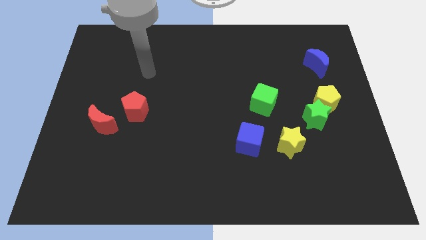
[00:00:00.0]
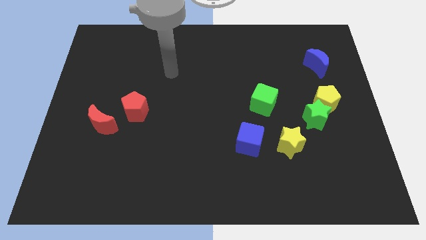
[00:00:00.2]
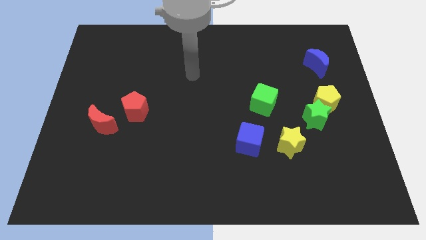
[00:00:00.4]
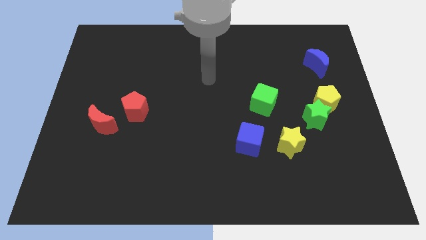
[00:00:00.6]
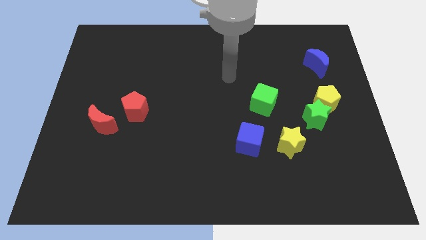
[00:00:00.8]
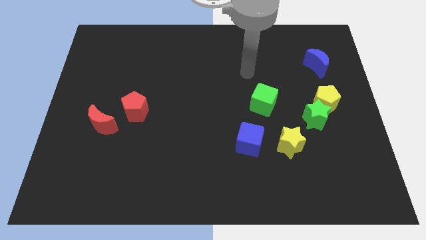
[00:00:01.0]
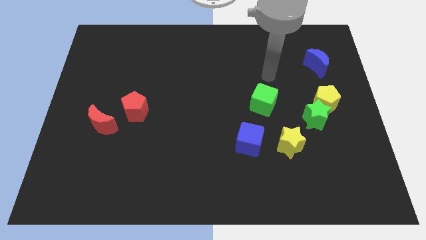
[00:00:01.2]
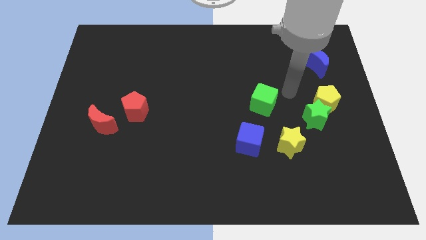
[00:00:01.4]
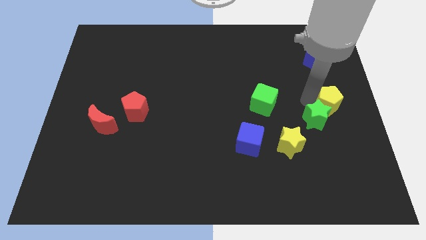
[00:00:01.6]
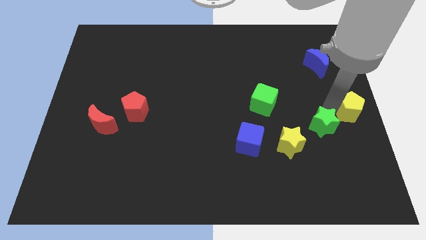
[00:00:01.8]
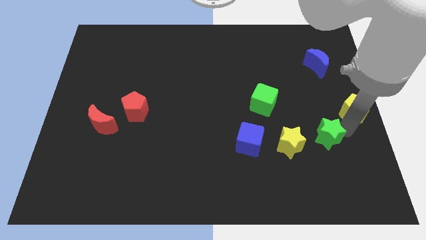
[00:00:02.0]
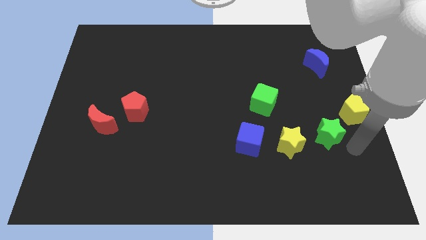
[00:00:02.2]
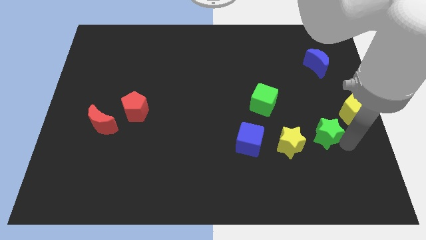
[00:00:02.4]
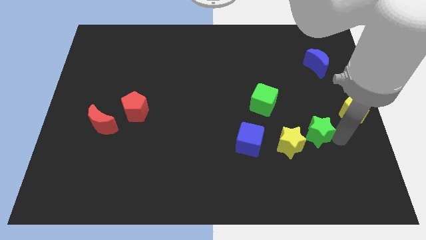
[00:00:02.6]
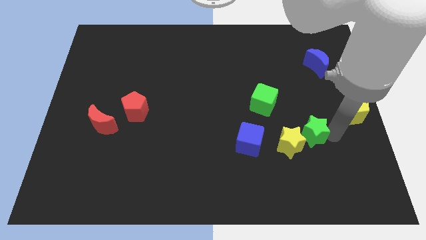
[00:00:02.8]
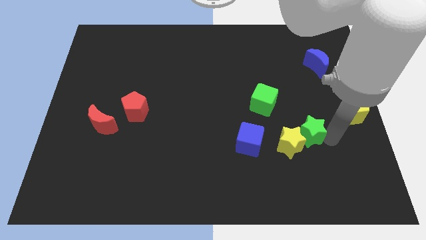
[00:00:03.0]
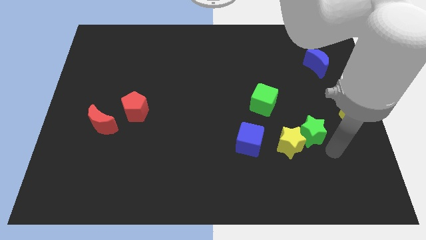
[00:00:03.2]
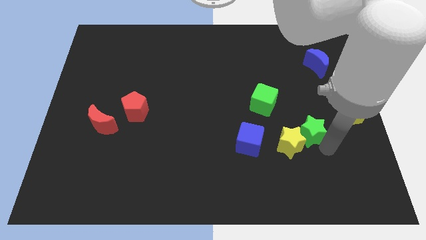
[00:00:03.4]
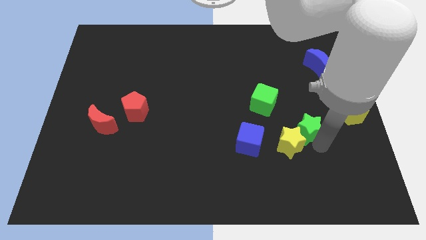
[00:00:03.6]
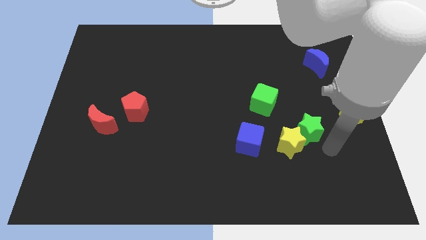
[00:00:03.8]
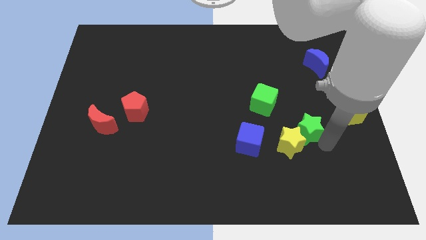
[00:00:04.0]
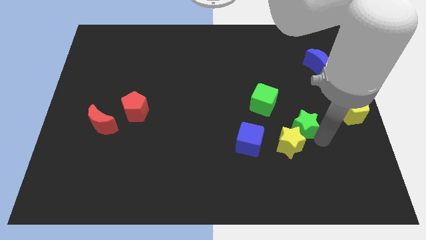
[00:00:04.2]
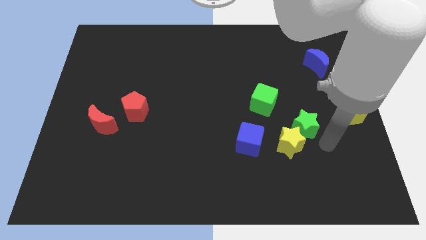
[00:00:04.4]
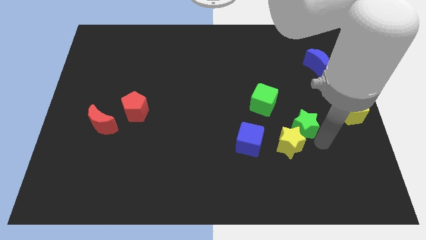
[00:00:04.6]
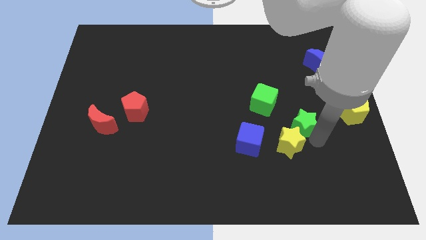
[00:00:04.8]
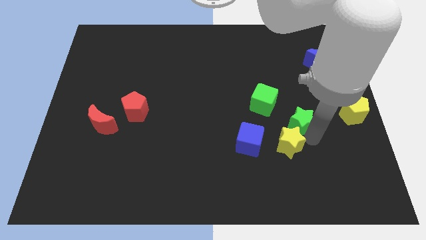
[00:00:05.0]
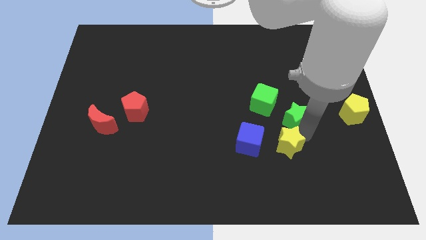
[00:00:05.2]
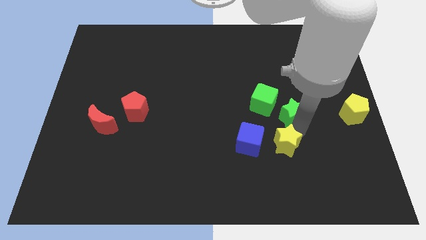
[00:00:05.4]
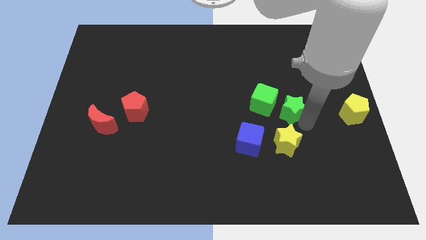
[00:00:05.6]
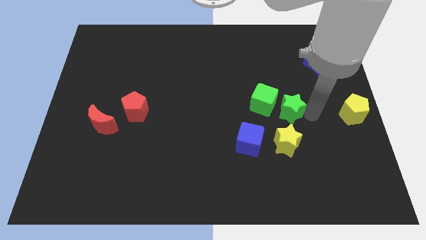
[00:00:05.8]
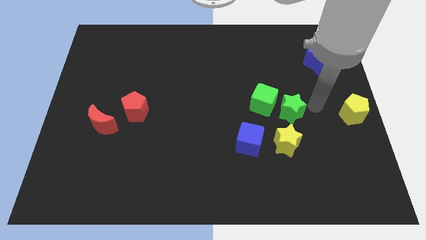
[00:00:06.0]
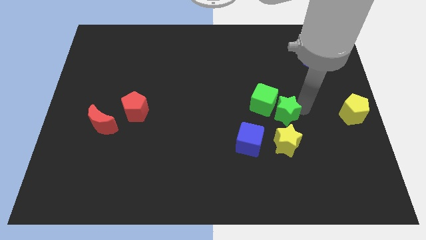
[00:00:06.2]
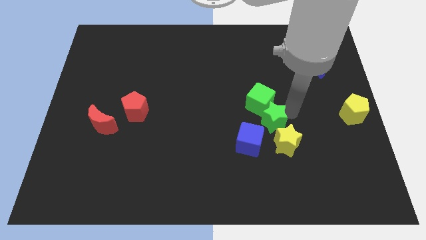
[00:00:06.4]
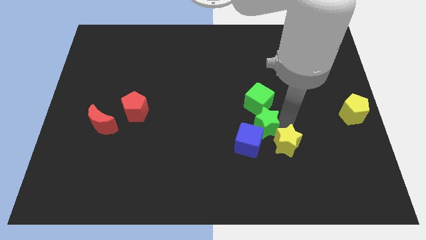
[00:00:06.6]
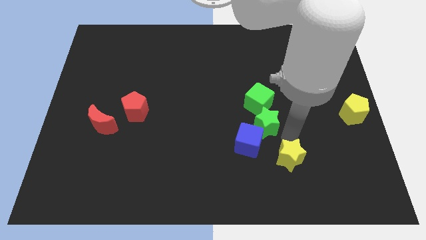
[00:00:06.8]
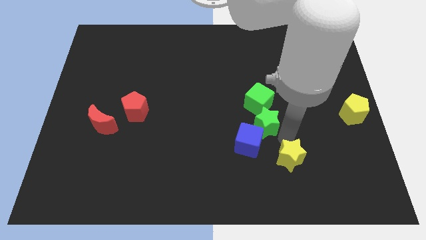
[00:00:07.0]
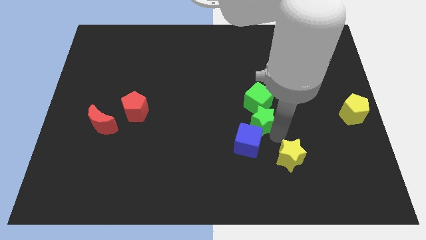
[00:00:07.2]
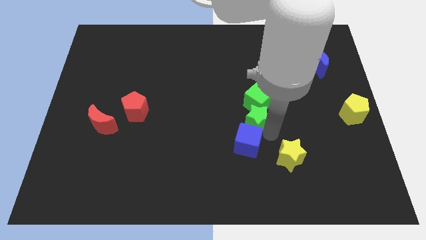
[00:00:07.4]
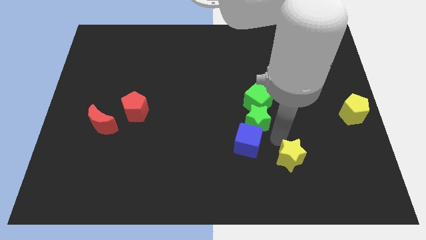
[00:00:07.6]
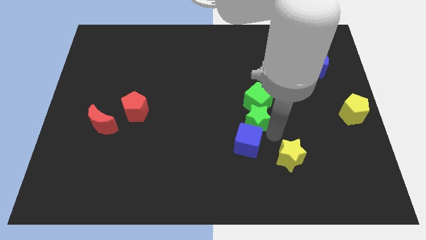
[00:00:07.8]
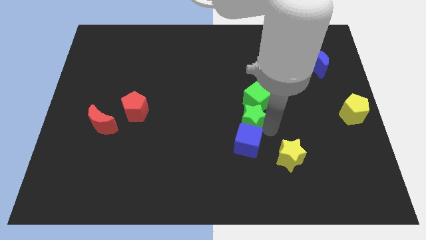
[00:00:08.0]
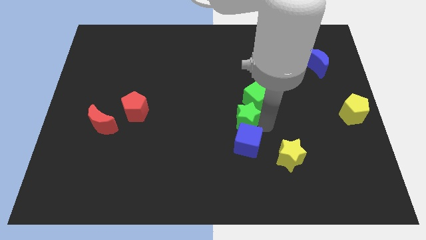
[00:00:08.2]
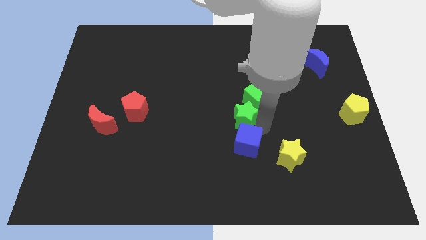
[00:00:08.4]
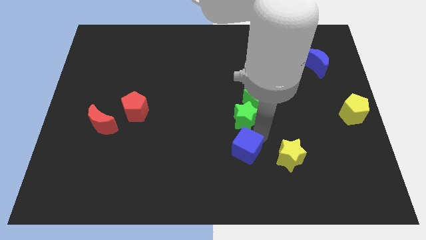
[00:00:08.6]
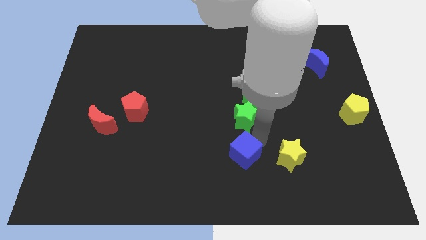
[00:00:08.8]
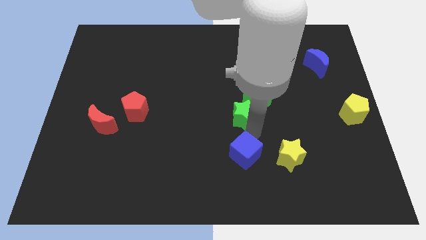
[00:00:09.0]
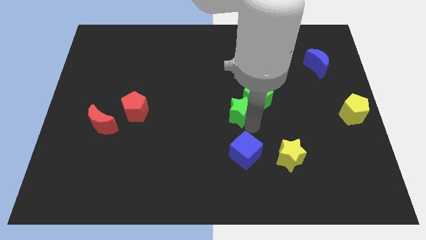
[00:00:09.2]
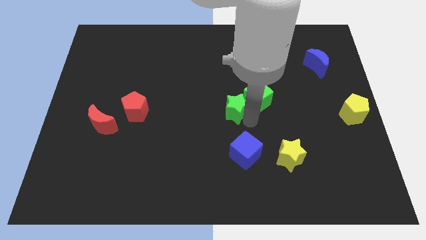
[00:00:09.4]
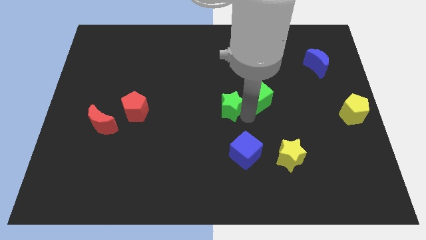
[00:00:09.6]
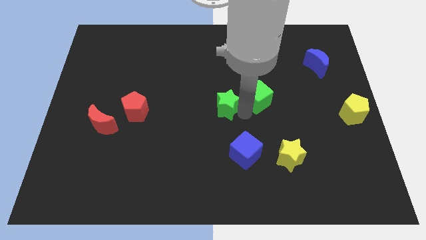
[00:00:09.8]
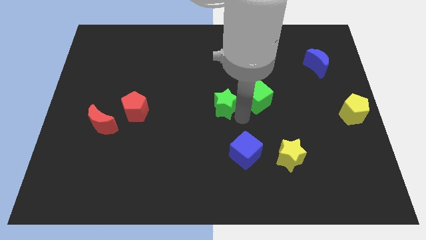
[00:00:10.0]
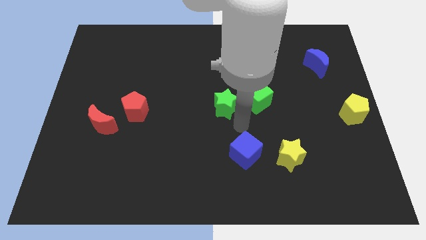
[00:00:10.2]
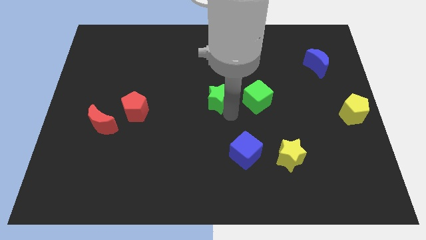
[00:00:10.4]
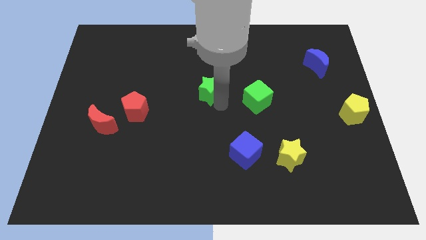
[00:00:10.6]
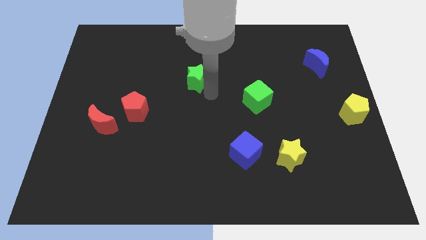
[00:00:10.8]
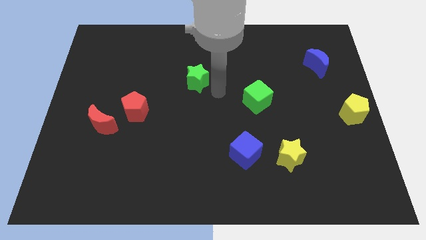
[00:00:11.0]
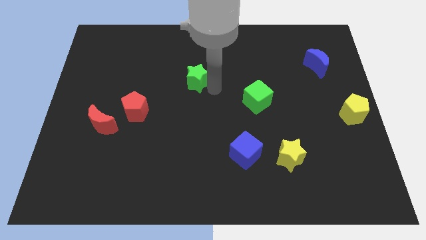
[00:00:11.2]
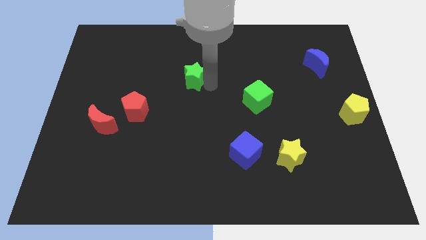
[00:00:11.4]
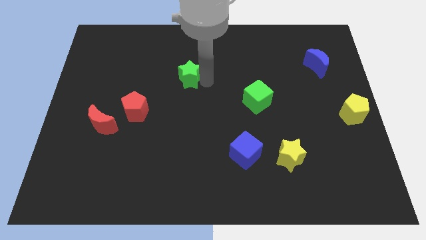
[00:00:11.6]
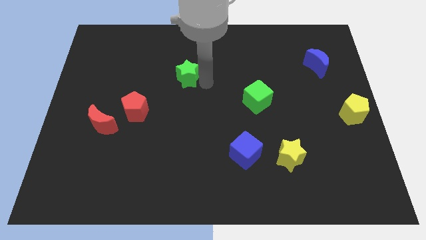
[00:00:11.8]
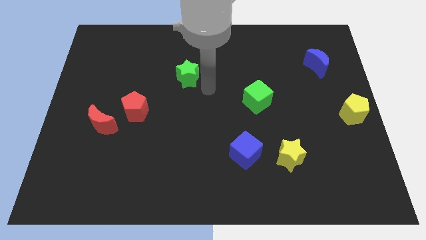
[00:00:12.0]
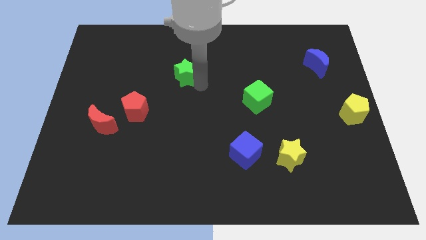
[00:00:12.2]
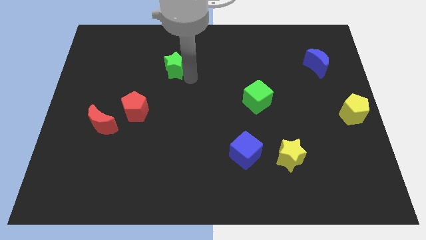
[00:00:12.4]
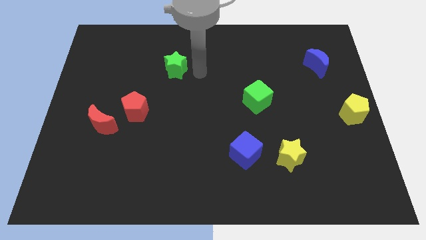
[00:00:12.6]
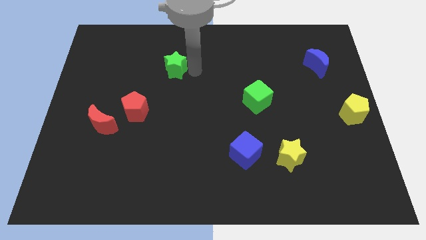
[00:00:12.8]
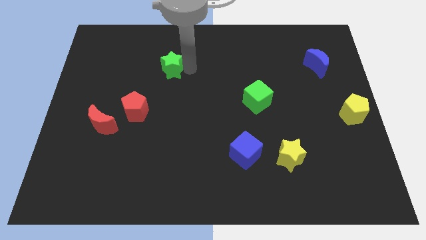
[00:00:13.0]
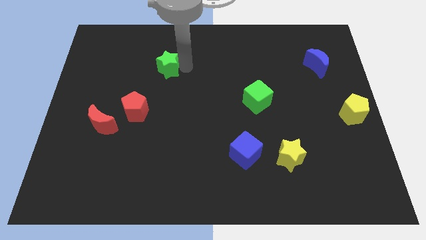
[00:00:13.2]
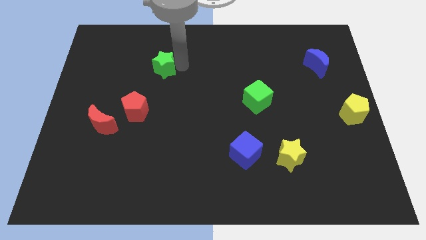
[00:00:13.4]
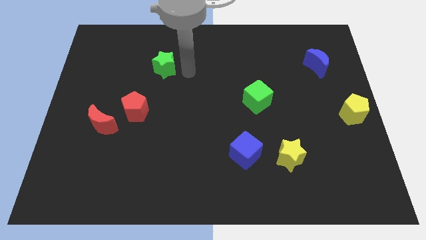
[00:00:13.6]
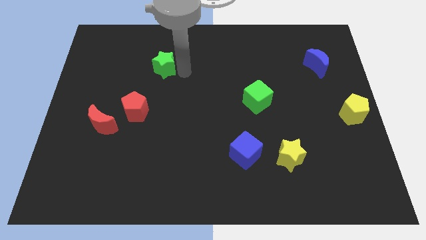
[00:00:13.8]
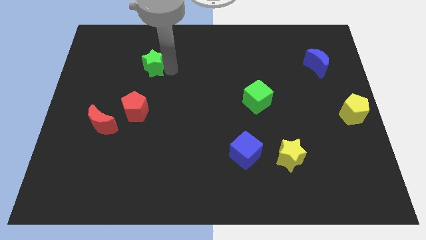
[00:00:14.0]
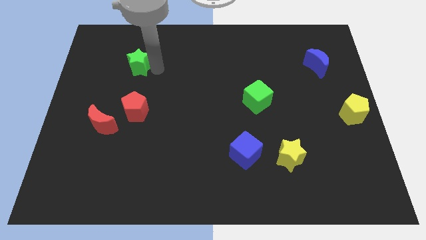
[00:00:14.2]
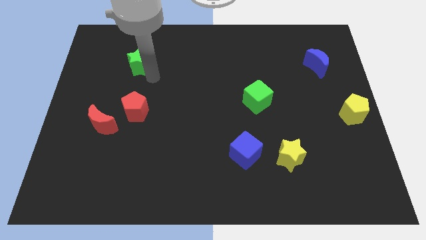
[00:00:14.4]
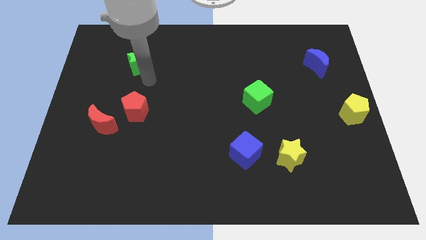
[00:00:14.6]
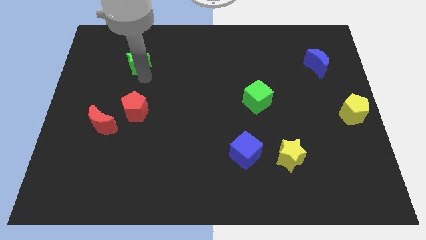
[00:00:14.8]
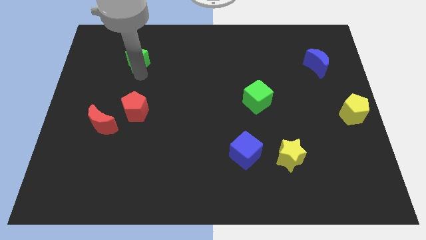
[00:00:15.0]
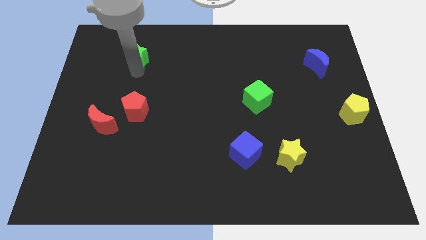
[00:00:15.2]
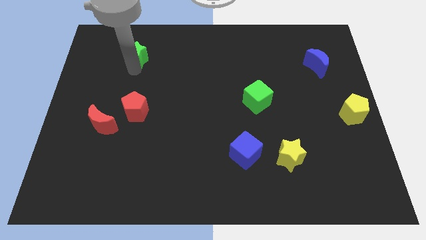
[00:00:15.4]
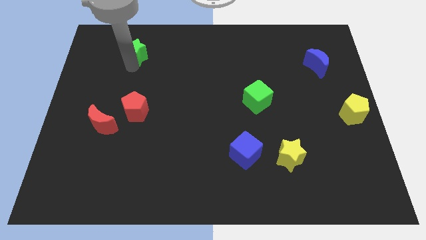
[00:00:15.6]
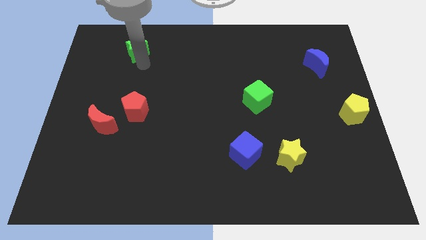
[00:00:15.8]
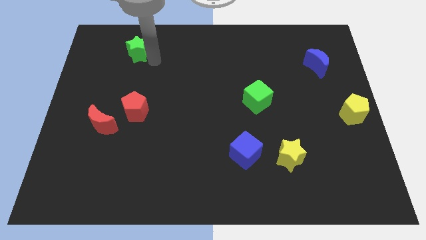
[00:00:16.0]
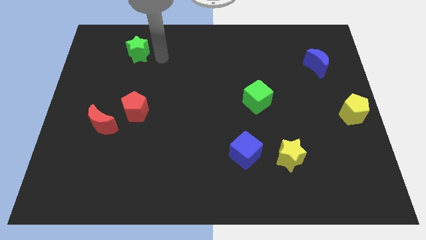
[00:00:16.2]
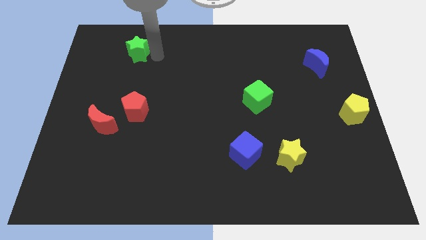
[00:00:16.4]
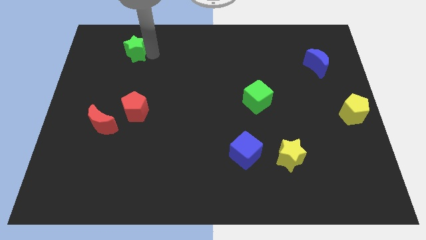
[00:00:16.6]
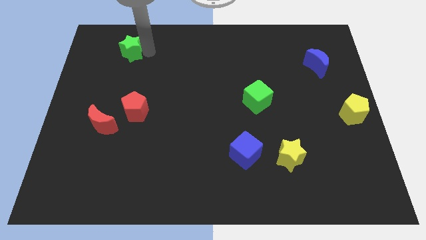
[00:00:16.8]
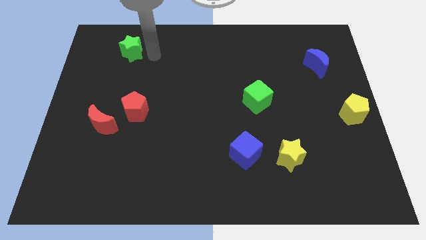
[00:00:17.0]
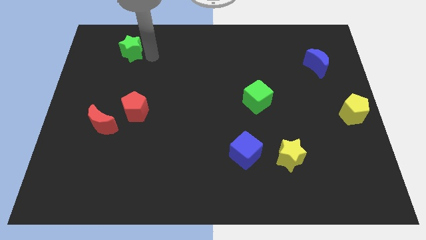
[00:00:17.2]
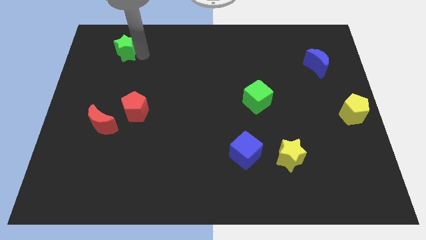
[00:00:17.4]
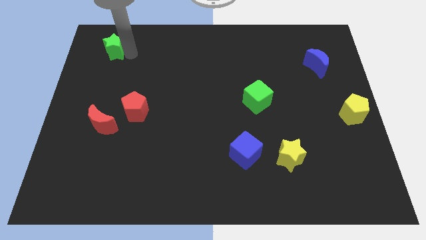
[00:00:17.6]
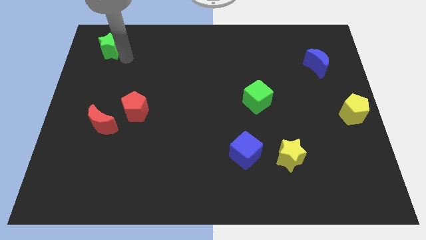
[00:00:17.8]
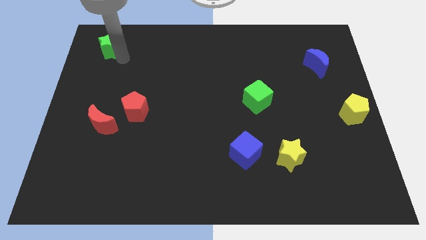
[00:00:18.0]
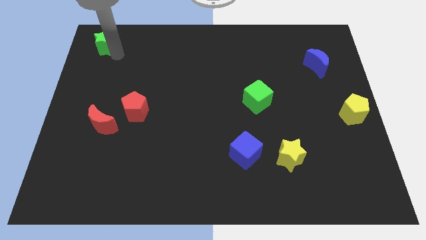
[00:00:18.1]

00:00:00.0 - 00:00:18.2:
move the green star to the upper left corner
